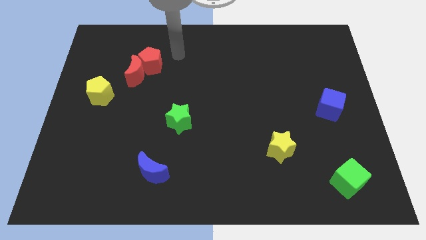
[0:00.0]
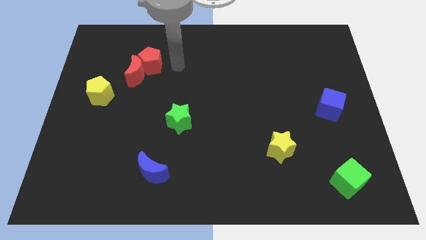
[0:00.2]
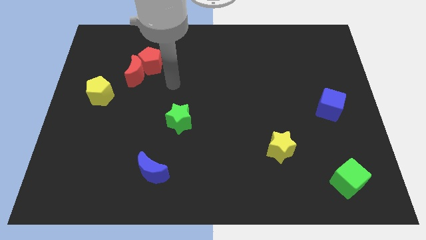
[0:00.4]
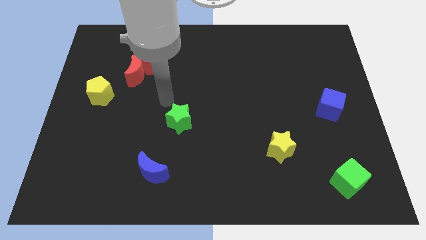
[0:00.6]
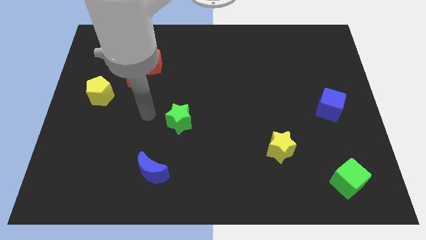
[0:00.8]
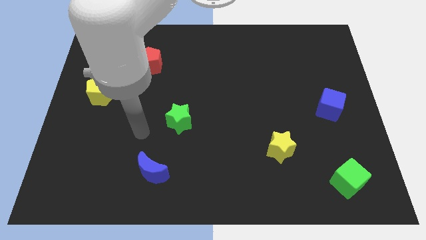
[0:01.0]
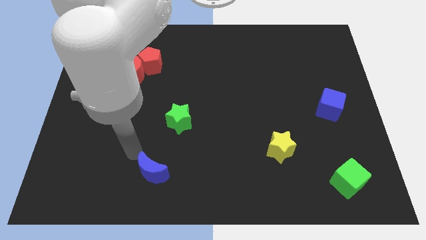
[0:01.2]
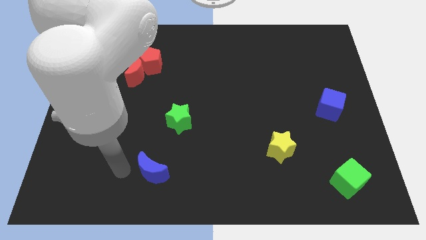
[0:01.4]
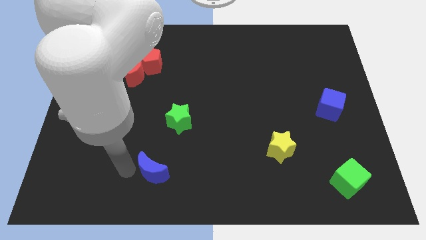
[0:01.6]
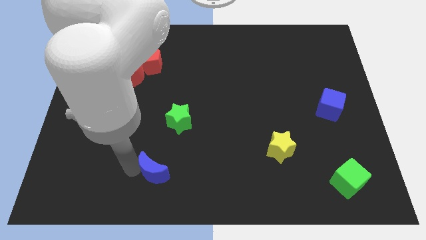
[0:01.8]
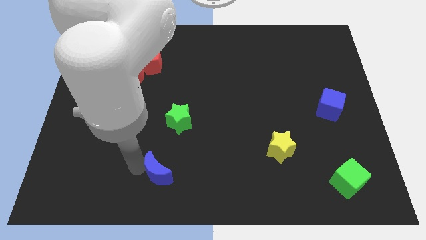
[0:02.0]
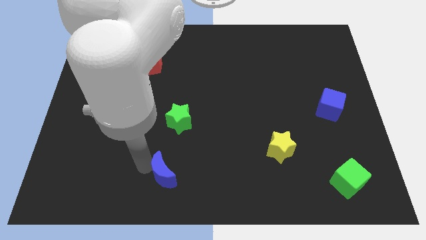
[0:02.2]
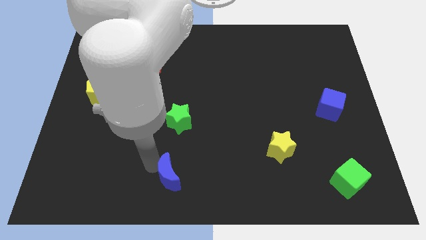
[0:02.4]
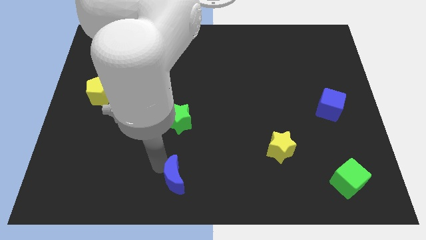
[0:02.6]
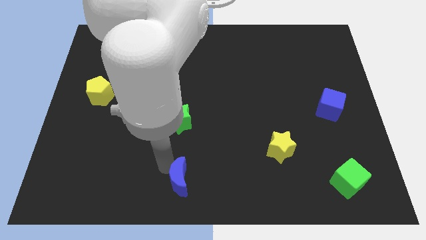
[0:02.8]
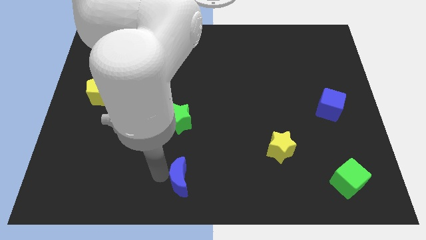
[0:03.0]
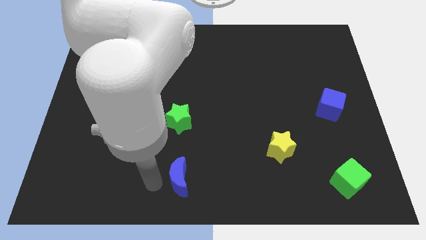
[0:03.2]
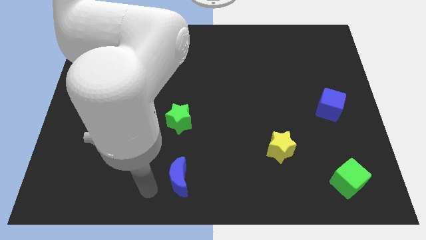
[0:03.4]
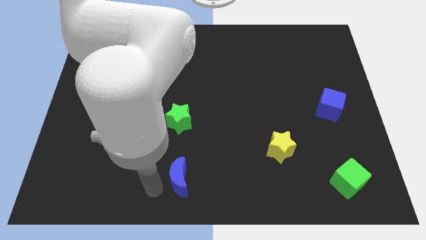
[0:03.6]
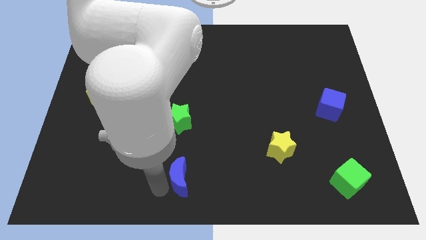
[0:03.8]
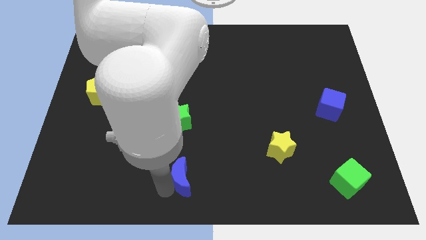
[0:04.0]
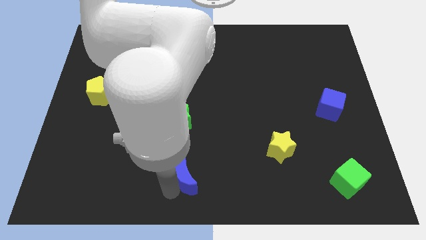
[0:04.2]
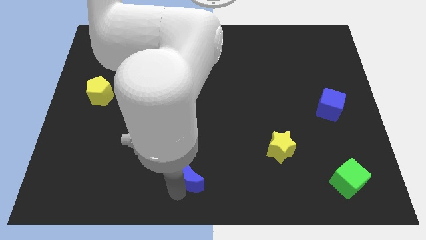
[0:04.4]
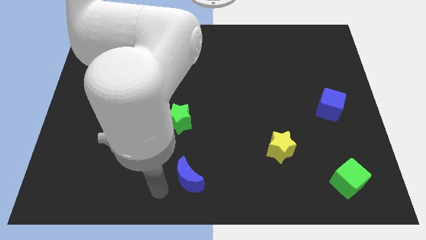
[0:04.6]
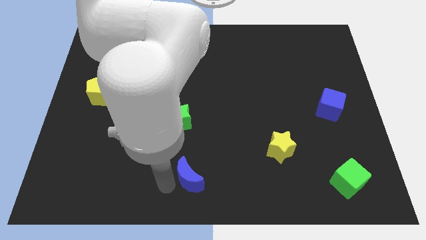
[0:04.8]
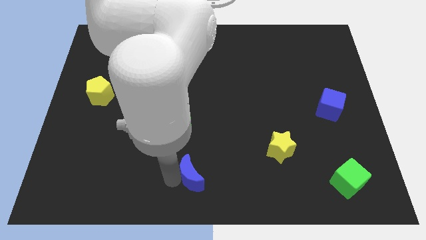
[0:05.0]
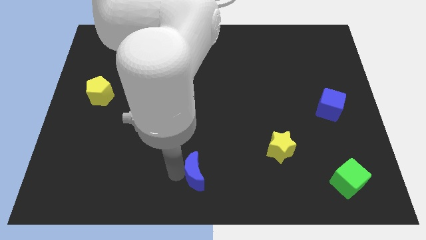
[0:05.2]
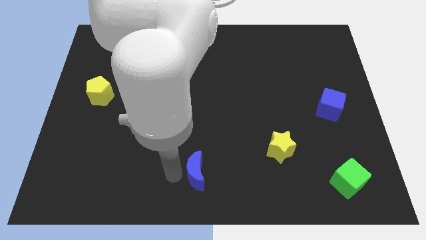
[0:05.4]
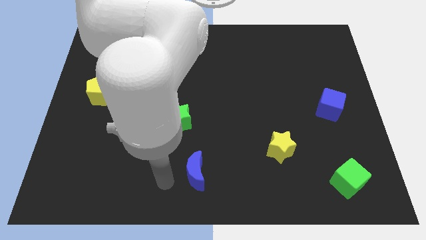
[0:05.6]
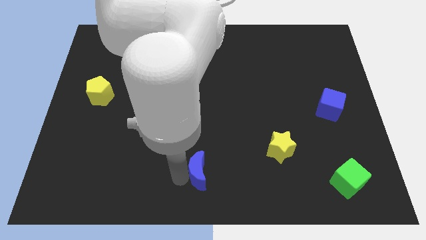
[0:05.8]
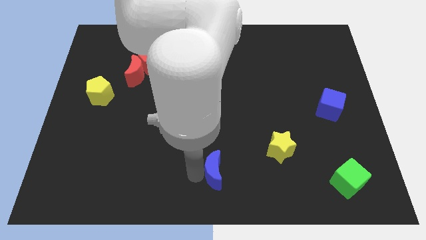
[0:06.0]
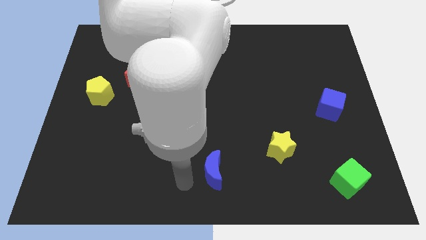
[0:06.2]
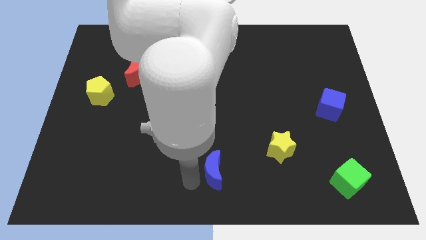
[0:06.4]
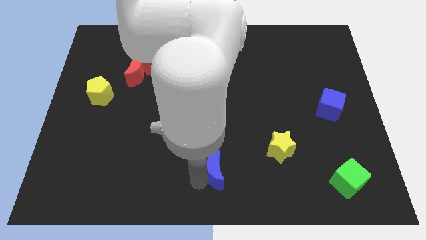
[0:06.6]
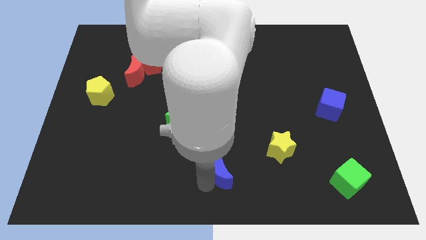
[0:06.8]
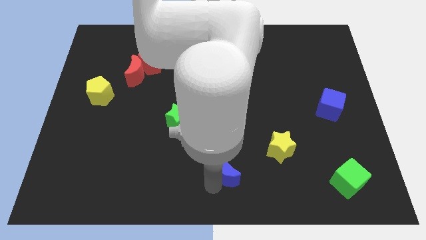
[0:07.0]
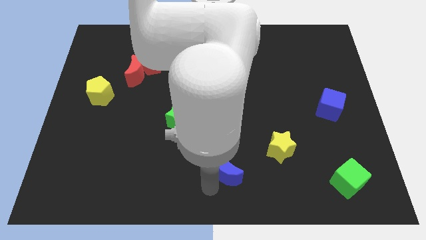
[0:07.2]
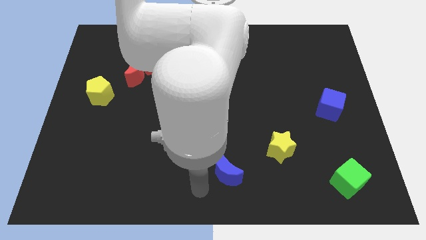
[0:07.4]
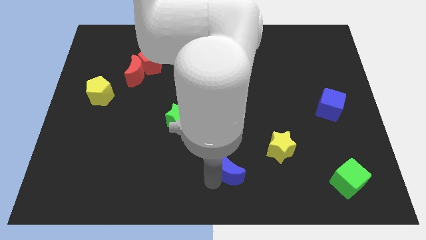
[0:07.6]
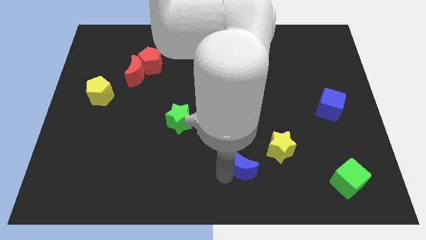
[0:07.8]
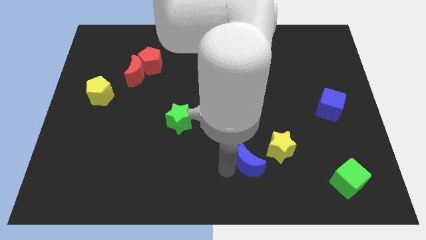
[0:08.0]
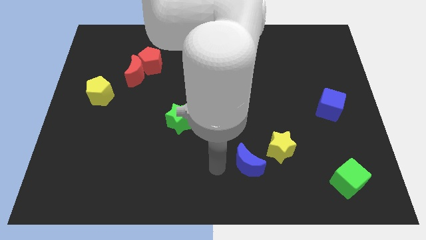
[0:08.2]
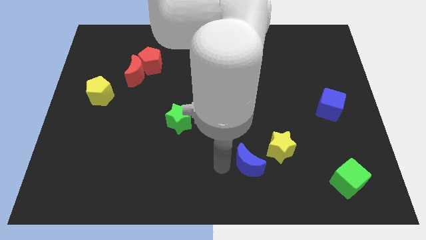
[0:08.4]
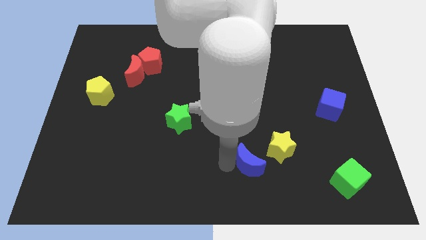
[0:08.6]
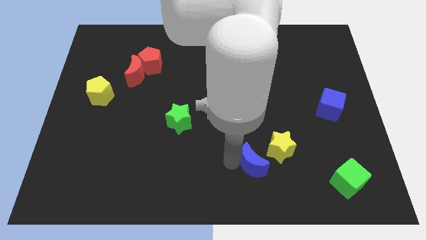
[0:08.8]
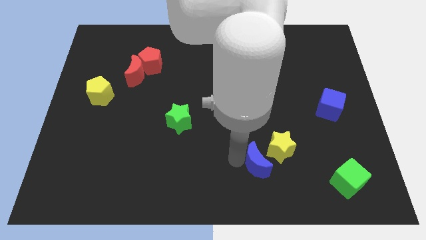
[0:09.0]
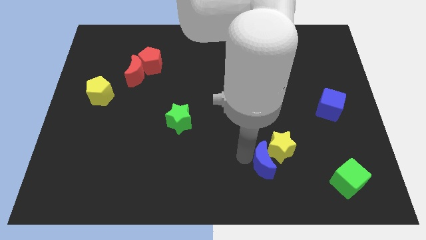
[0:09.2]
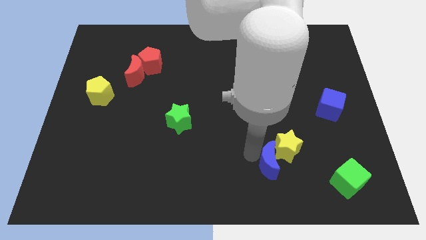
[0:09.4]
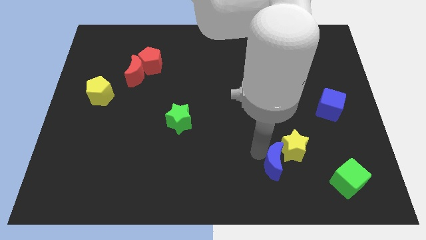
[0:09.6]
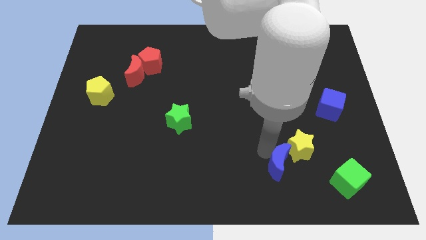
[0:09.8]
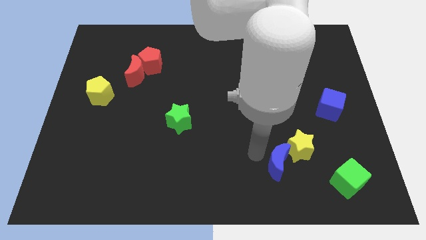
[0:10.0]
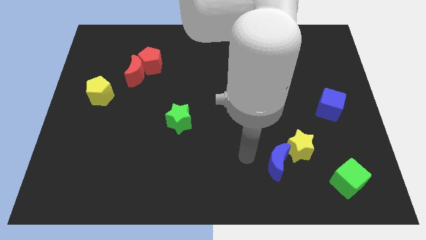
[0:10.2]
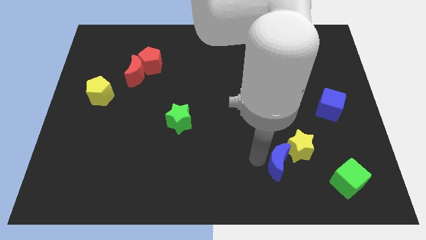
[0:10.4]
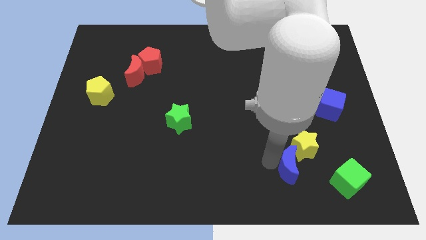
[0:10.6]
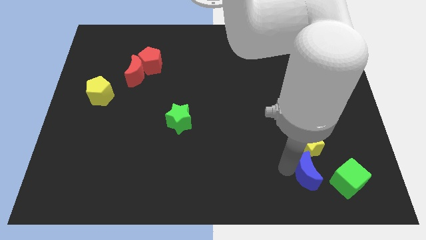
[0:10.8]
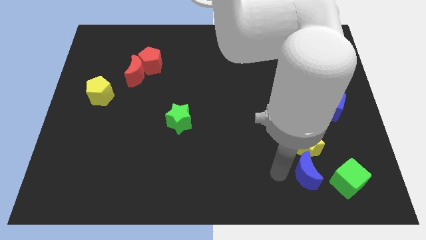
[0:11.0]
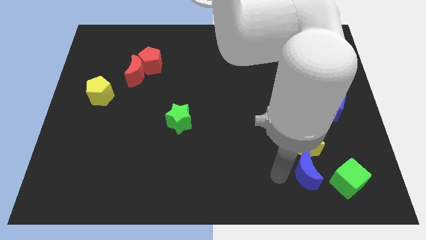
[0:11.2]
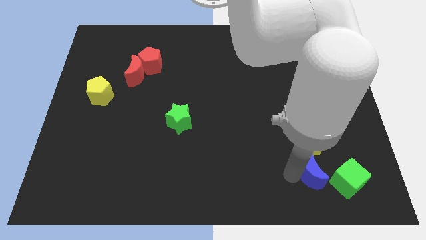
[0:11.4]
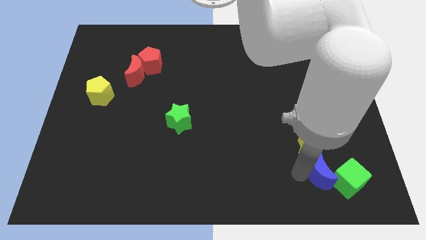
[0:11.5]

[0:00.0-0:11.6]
slide the blue moon towards the green cube

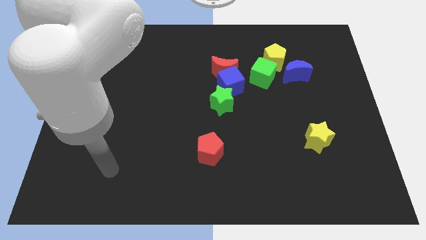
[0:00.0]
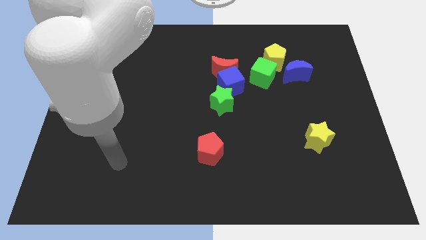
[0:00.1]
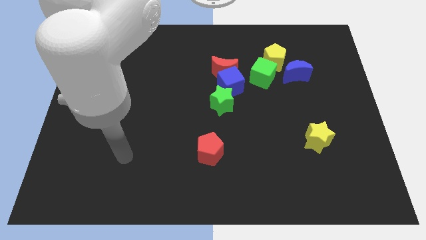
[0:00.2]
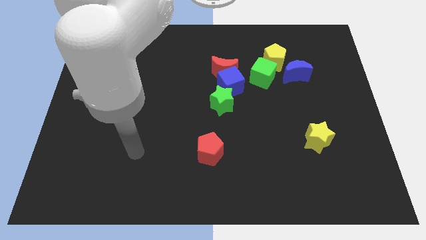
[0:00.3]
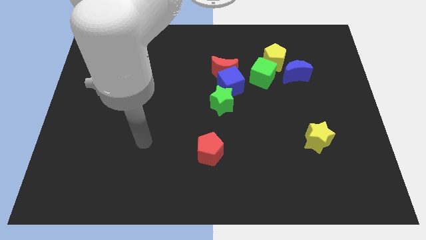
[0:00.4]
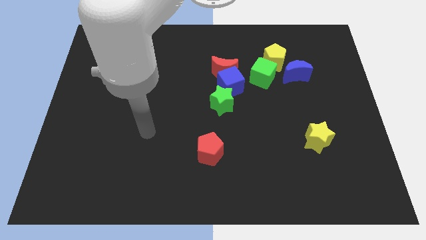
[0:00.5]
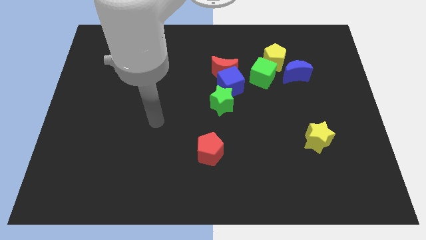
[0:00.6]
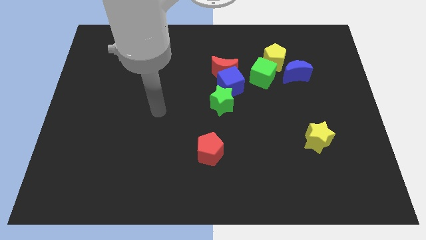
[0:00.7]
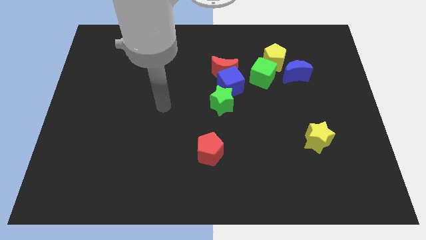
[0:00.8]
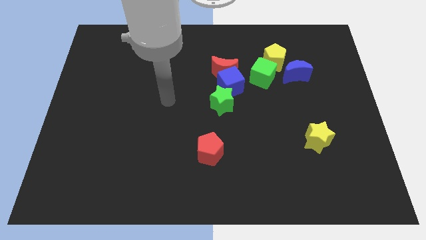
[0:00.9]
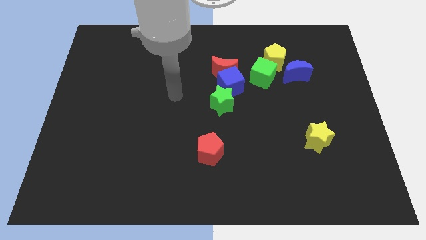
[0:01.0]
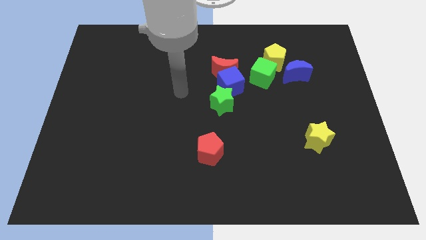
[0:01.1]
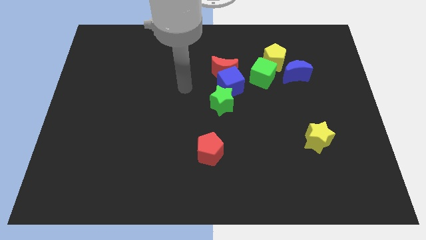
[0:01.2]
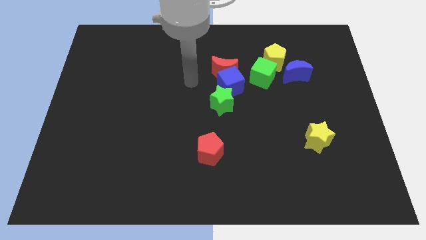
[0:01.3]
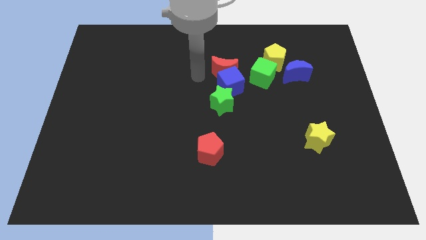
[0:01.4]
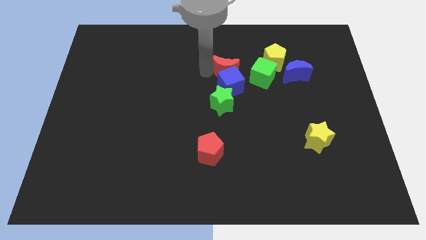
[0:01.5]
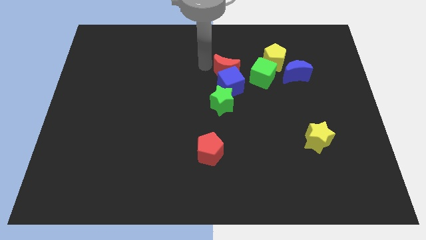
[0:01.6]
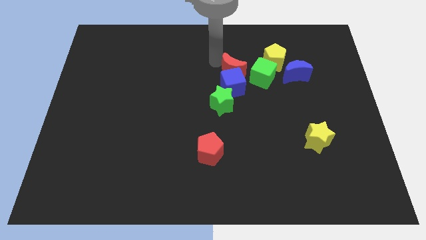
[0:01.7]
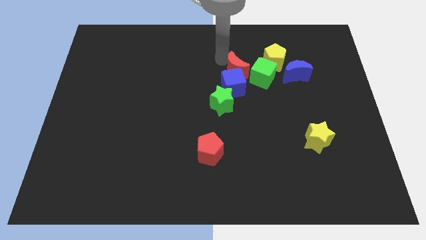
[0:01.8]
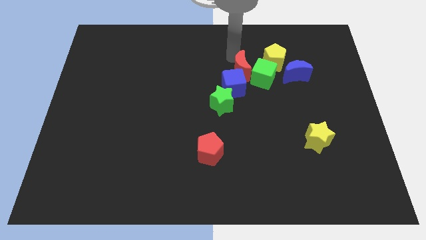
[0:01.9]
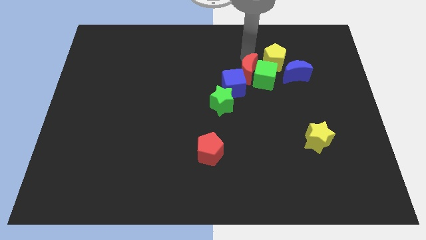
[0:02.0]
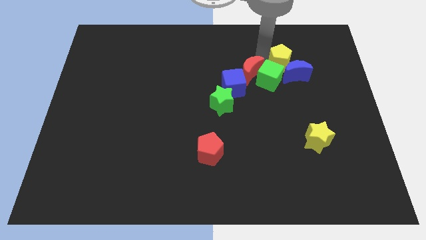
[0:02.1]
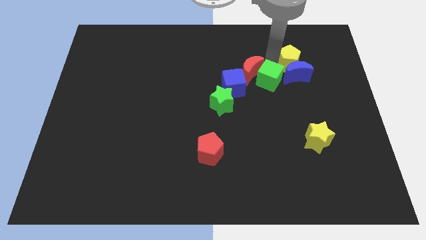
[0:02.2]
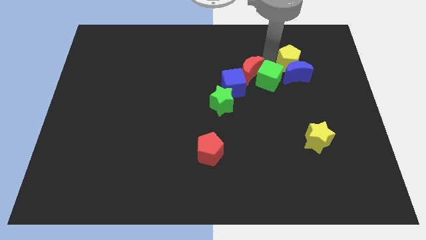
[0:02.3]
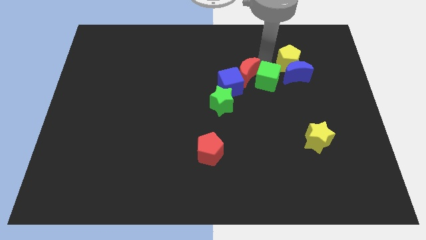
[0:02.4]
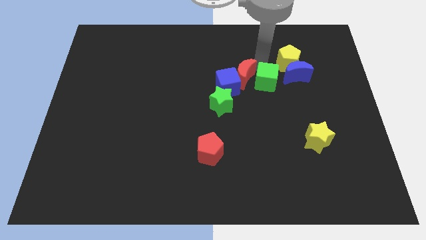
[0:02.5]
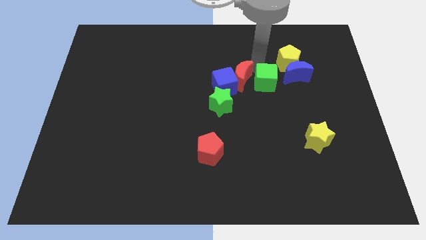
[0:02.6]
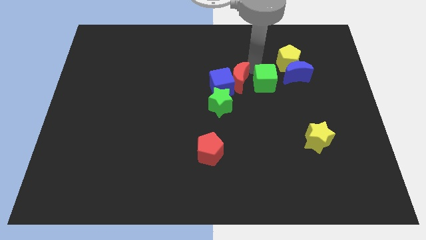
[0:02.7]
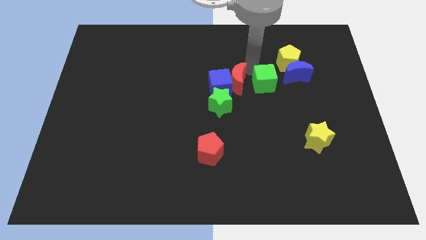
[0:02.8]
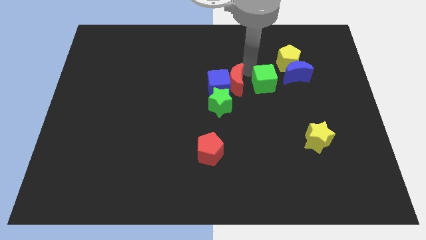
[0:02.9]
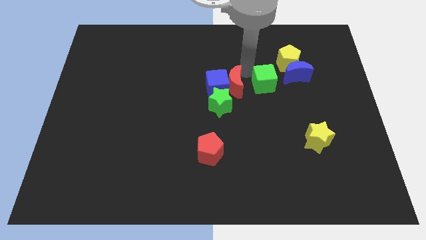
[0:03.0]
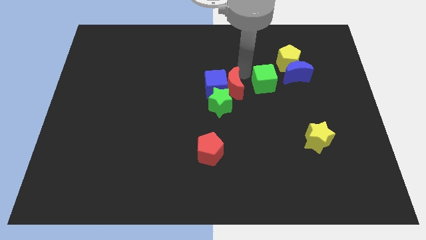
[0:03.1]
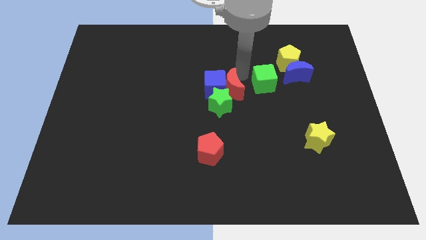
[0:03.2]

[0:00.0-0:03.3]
push the red moon towards the green star
